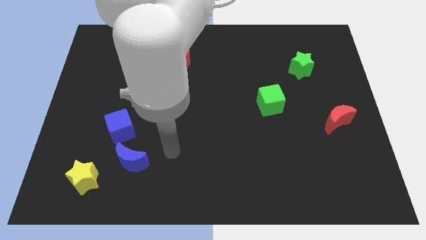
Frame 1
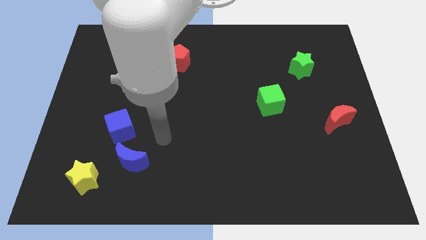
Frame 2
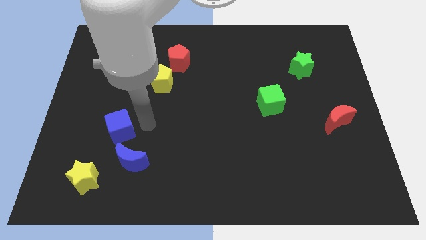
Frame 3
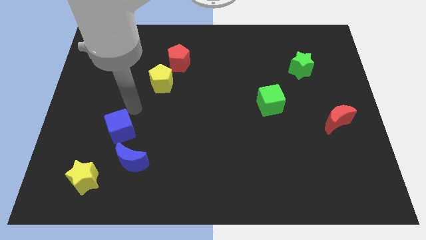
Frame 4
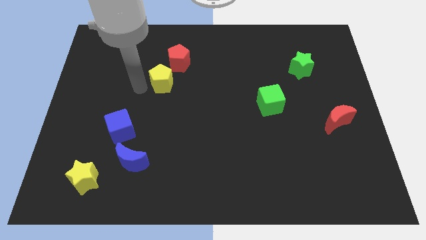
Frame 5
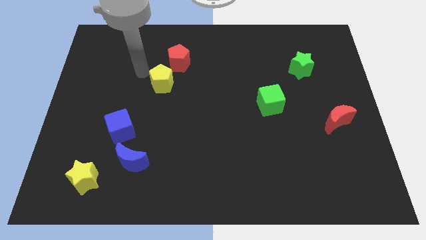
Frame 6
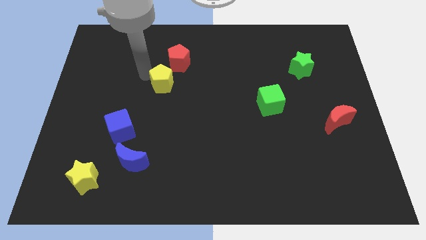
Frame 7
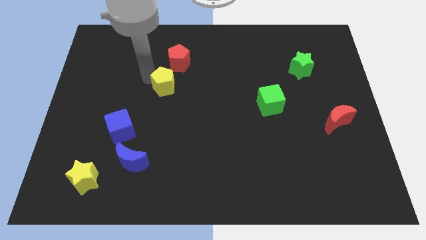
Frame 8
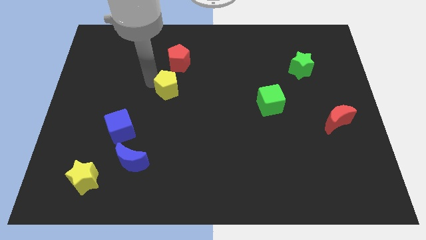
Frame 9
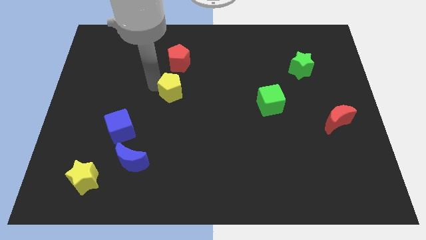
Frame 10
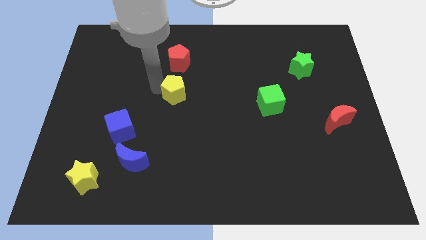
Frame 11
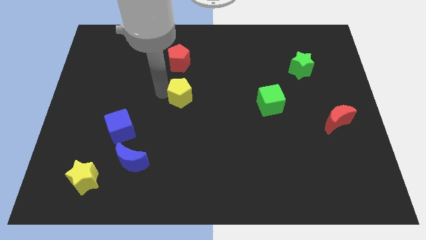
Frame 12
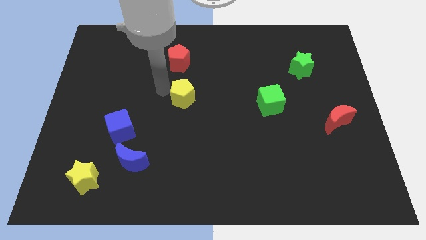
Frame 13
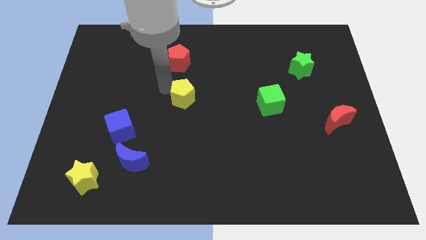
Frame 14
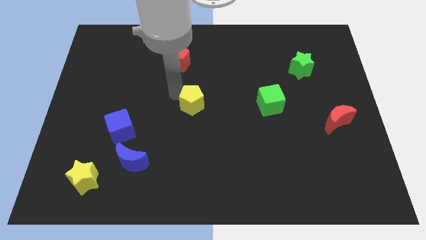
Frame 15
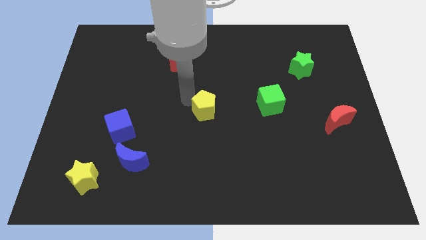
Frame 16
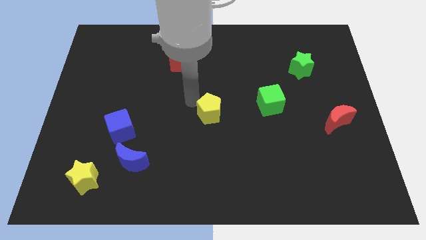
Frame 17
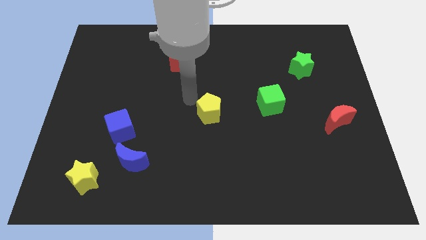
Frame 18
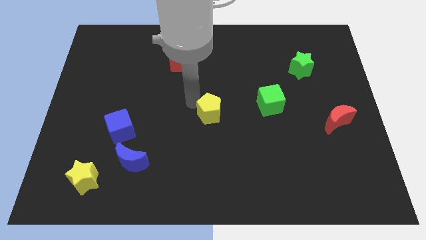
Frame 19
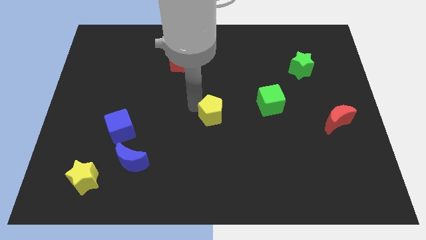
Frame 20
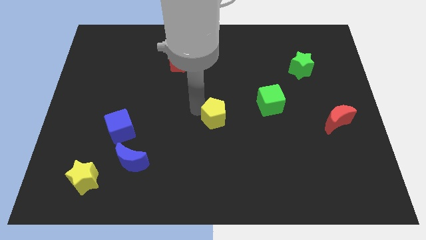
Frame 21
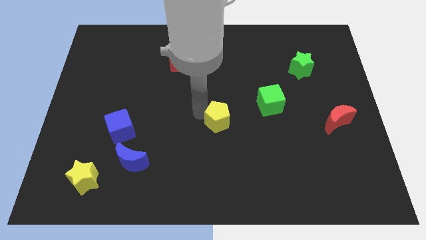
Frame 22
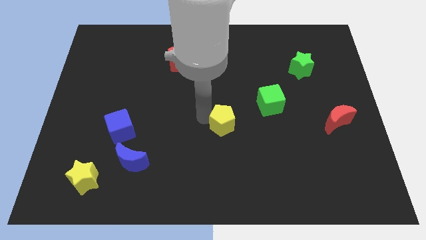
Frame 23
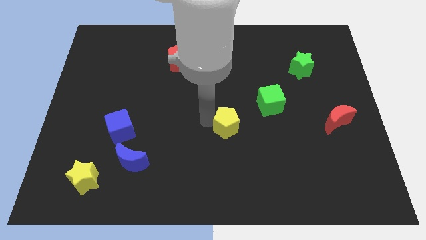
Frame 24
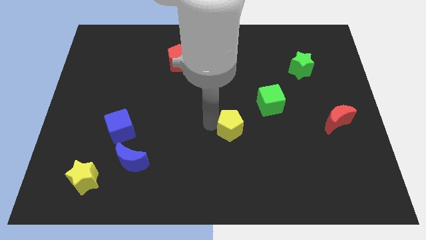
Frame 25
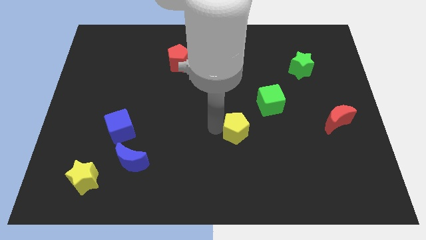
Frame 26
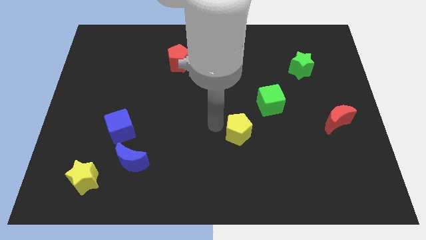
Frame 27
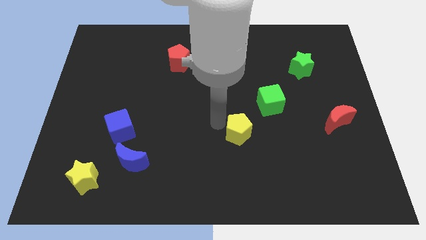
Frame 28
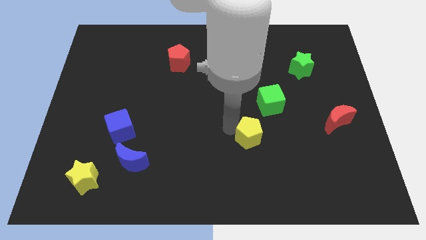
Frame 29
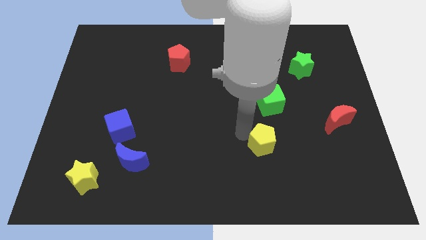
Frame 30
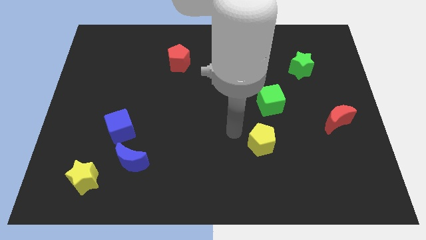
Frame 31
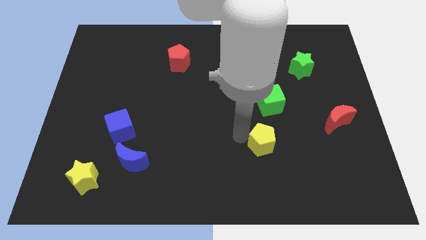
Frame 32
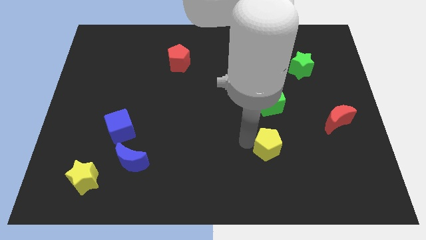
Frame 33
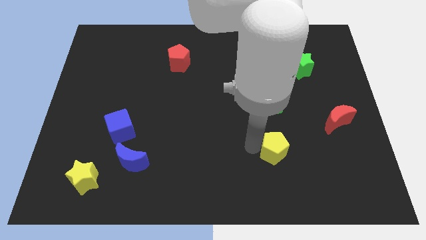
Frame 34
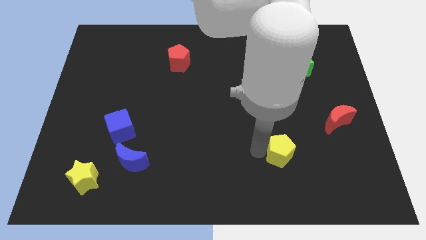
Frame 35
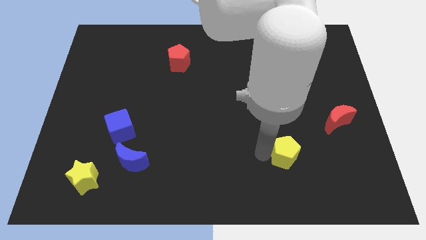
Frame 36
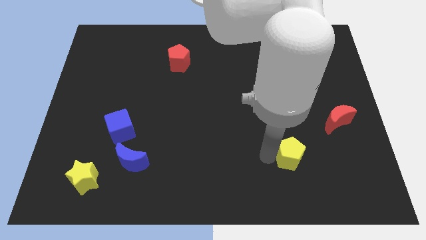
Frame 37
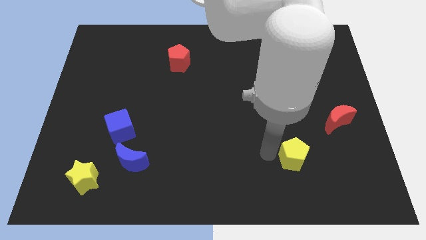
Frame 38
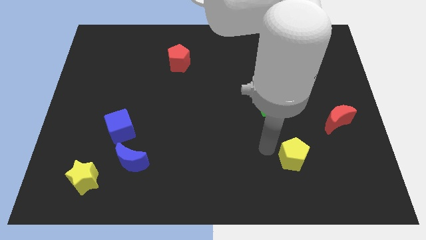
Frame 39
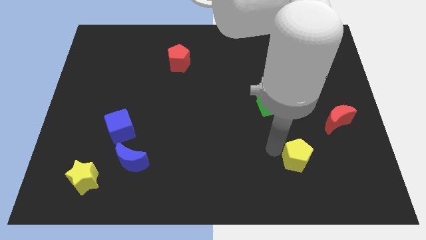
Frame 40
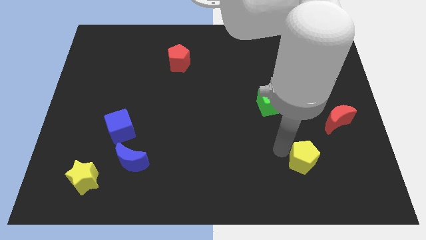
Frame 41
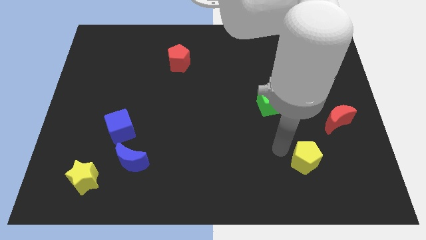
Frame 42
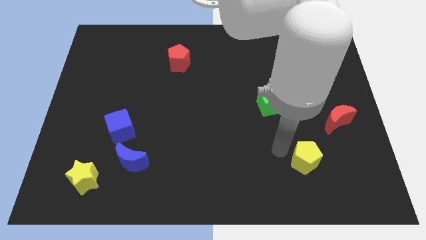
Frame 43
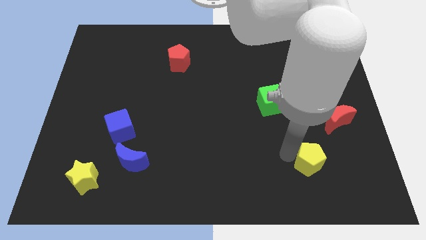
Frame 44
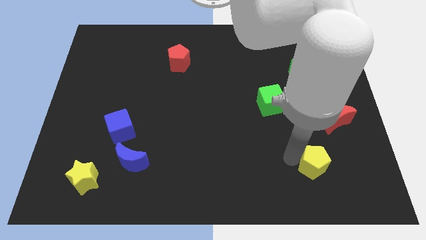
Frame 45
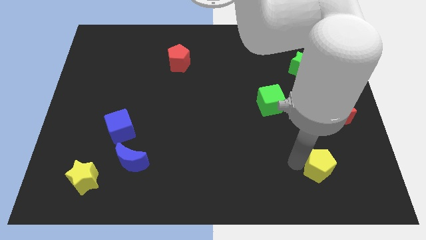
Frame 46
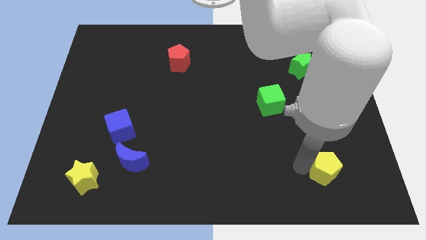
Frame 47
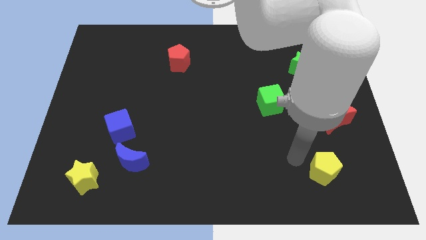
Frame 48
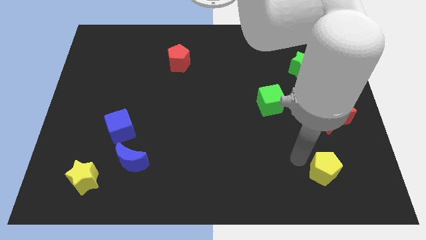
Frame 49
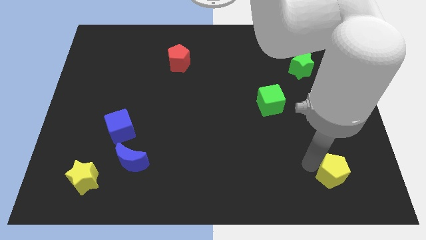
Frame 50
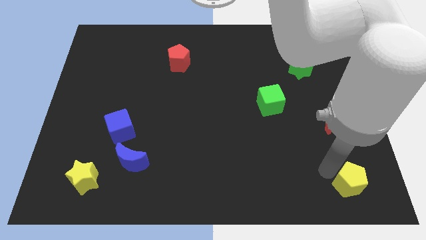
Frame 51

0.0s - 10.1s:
put the yellow pentagon to the lower right corner

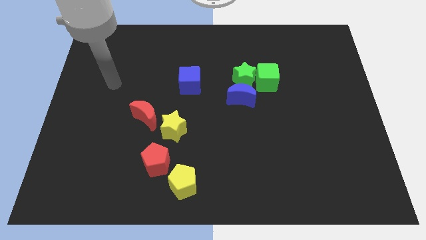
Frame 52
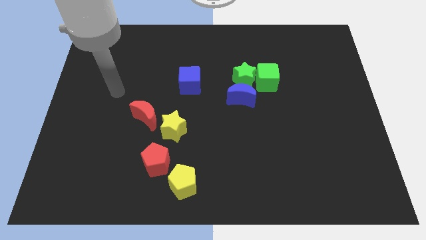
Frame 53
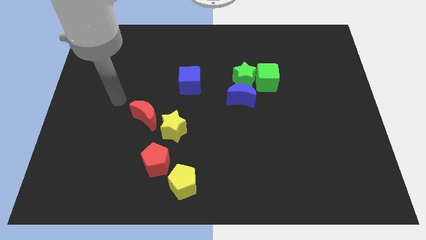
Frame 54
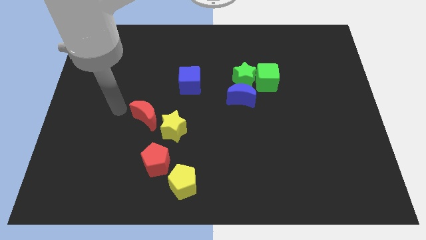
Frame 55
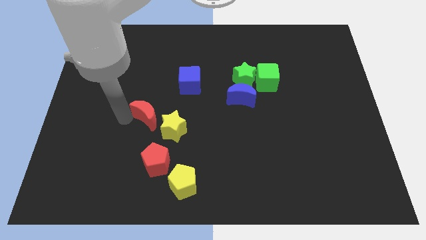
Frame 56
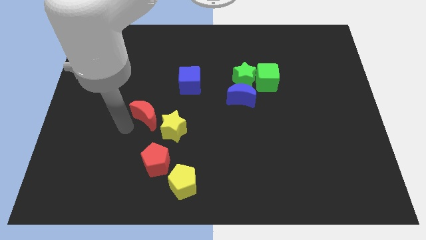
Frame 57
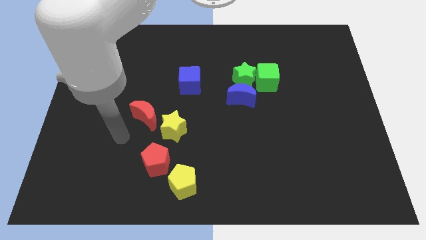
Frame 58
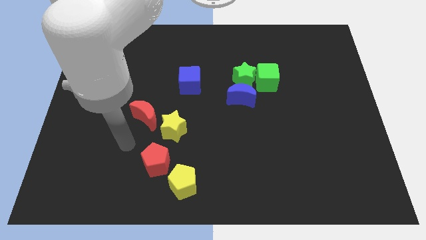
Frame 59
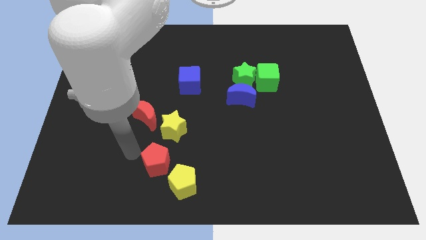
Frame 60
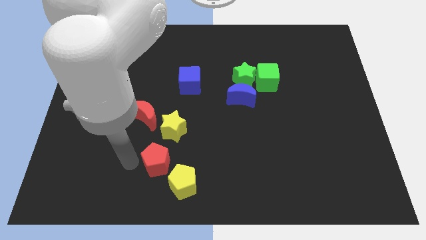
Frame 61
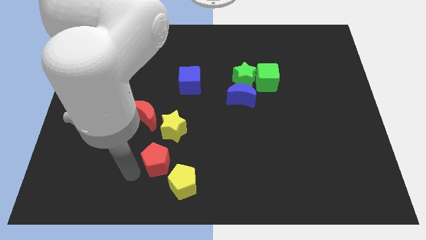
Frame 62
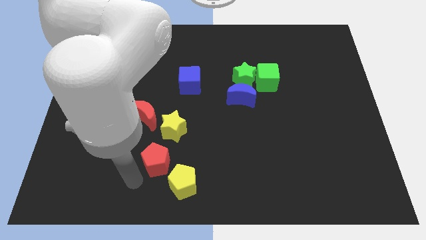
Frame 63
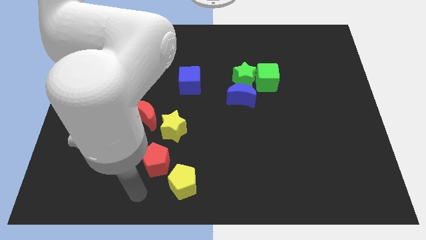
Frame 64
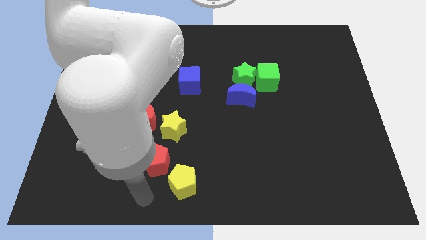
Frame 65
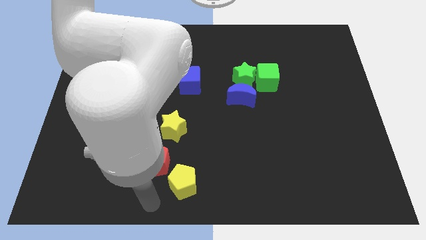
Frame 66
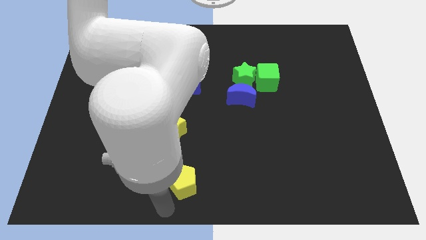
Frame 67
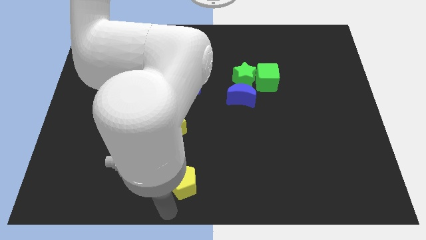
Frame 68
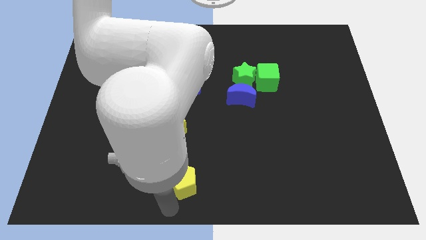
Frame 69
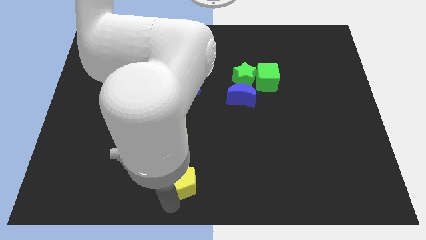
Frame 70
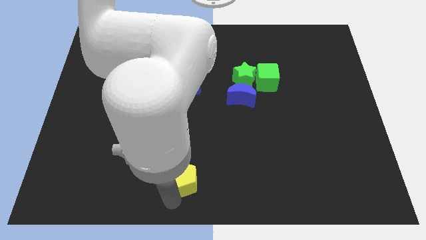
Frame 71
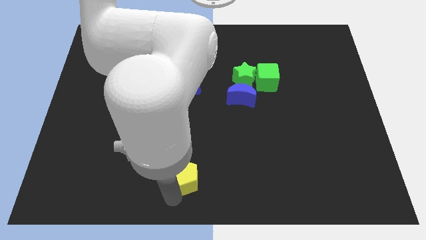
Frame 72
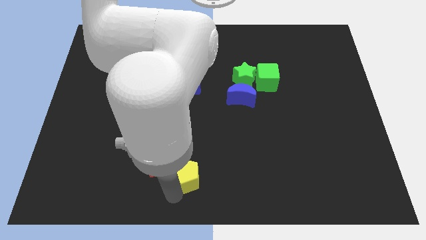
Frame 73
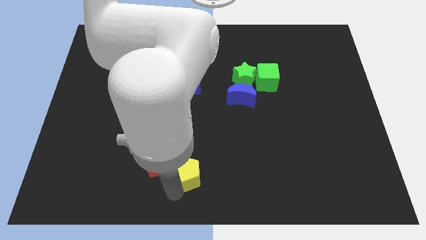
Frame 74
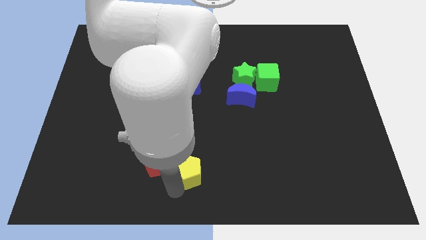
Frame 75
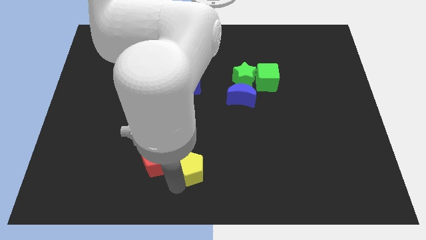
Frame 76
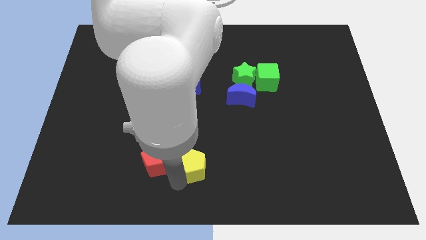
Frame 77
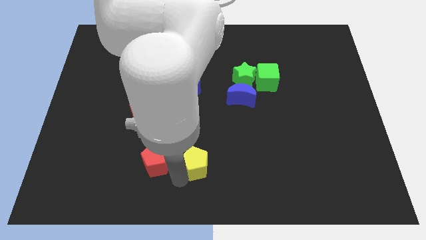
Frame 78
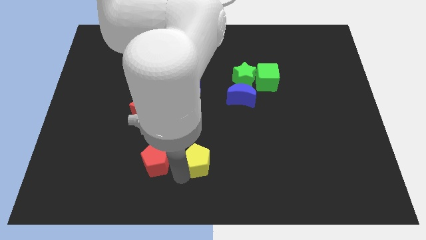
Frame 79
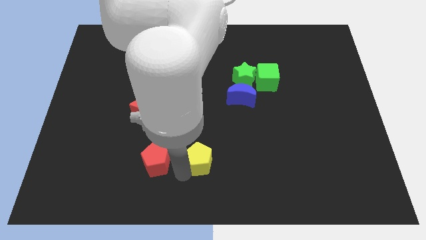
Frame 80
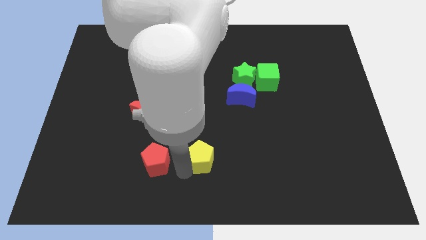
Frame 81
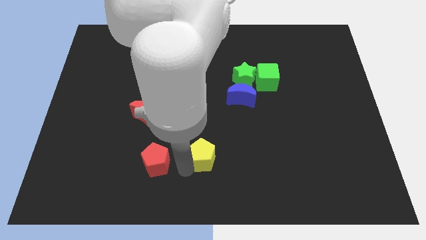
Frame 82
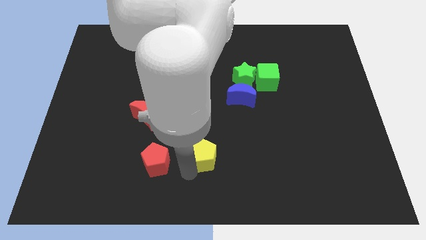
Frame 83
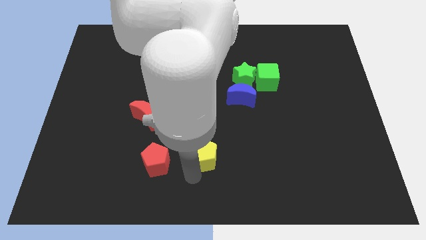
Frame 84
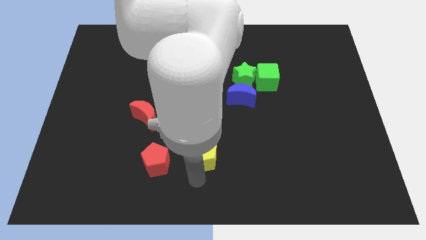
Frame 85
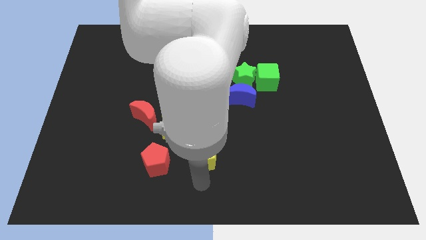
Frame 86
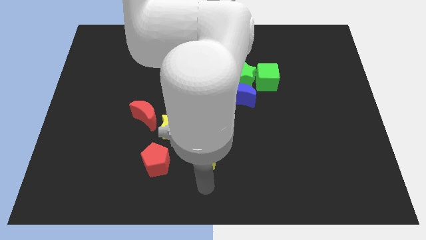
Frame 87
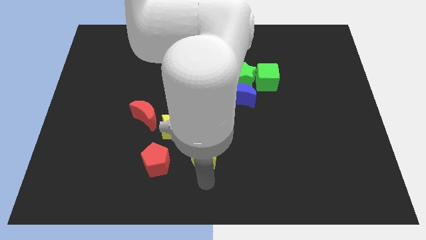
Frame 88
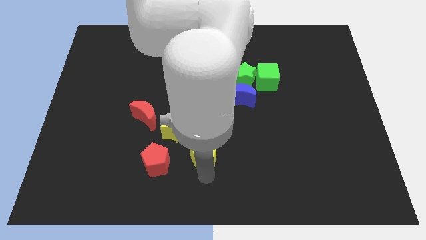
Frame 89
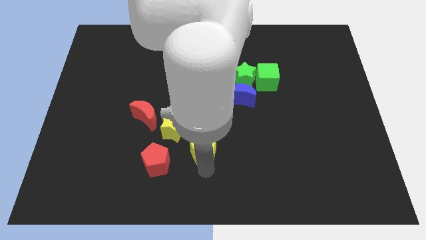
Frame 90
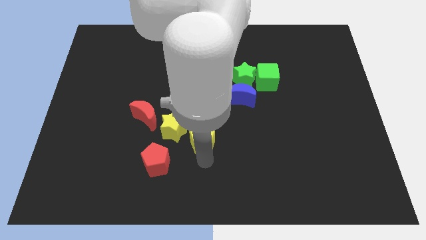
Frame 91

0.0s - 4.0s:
slide the yellow pentagon to the middle of the board
